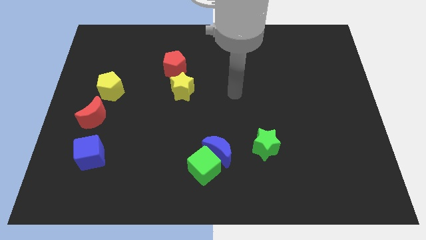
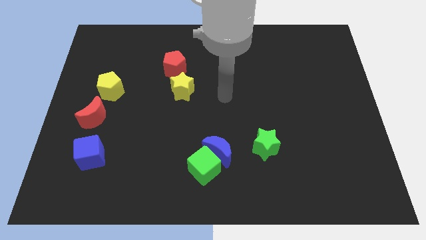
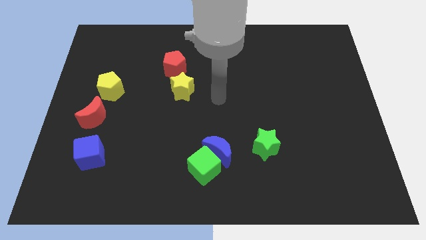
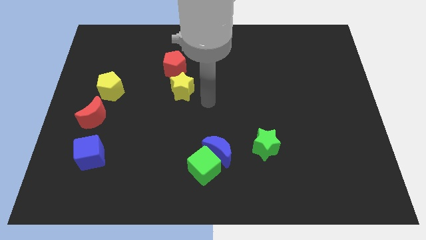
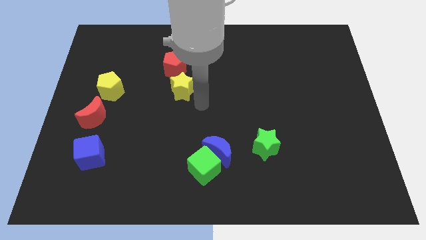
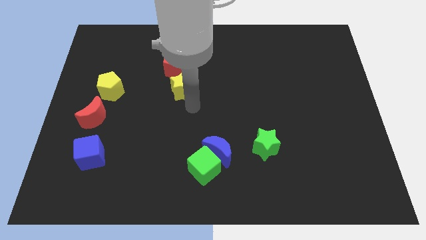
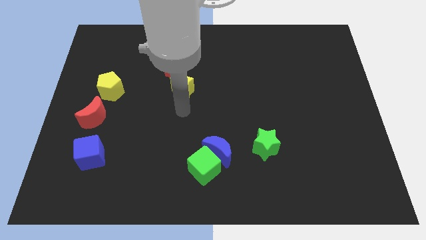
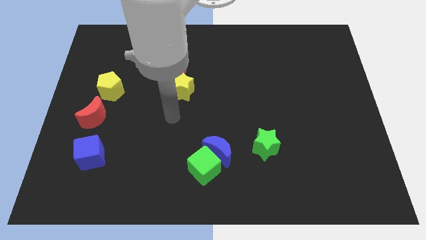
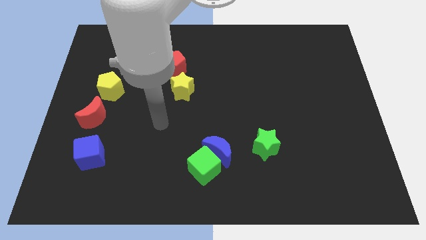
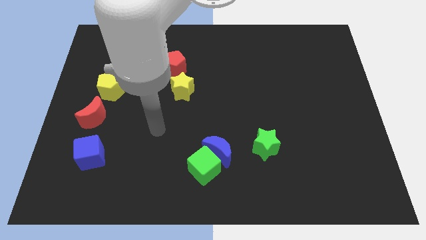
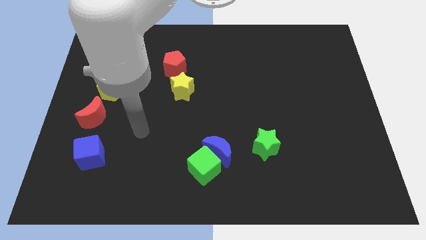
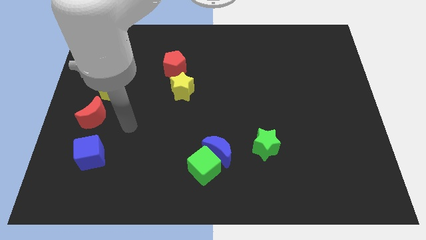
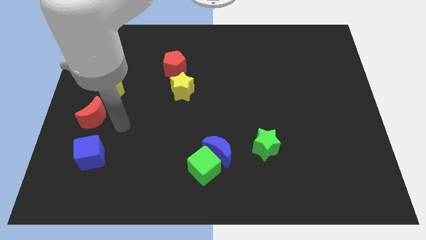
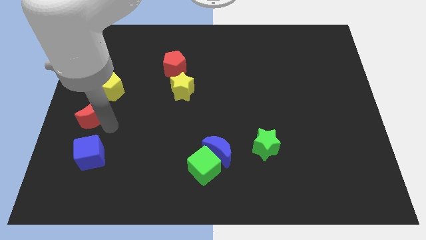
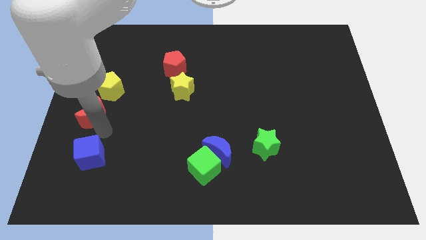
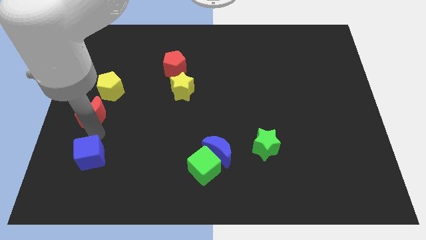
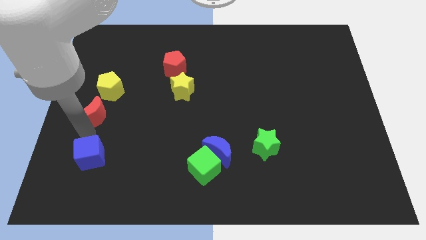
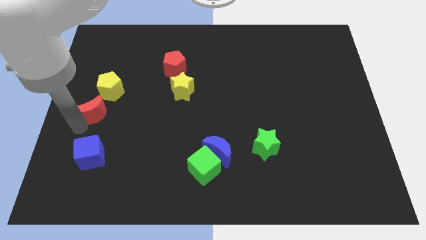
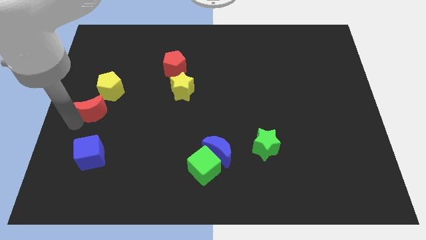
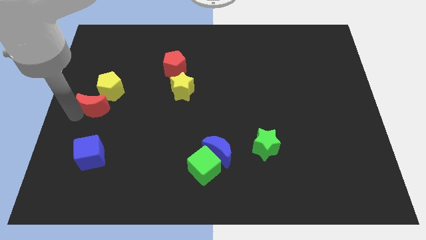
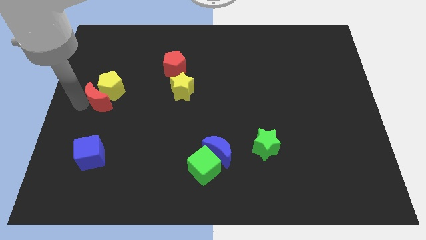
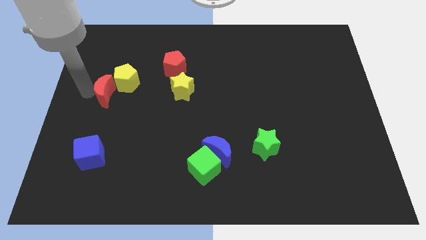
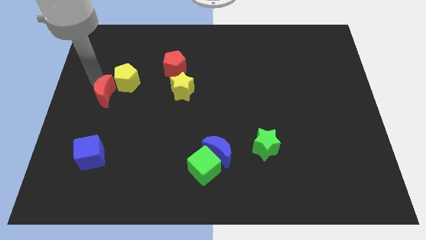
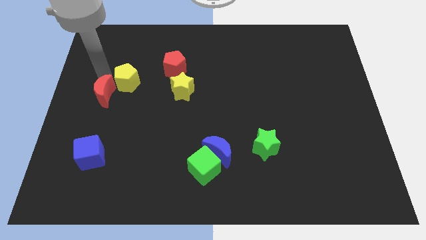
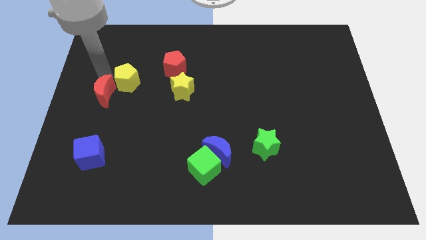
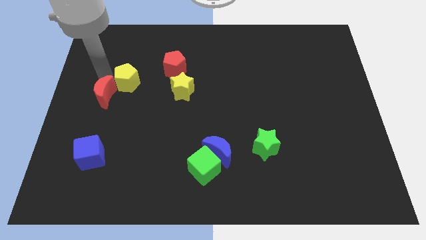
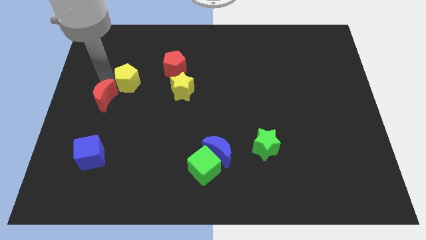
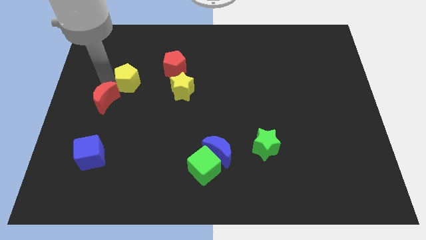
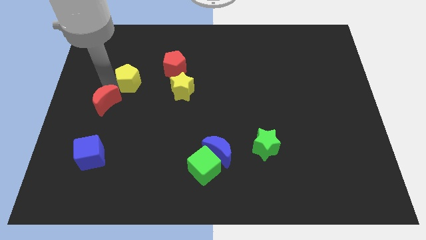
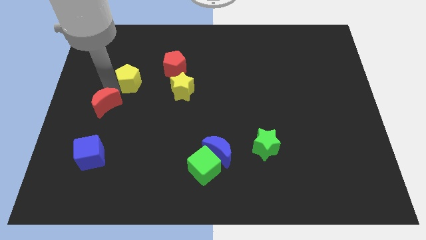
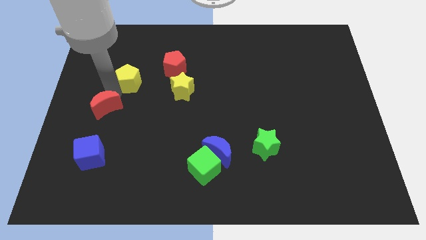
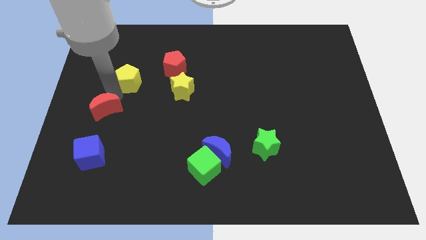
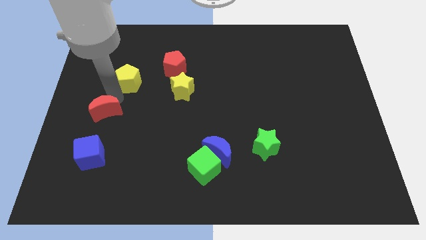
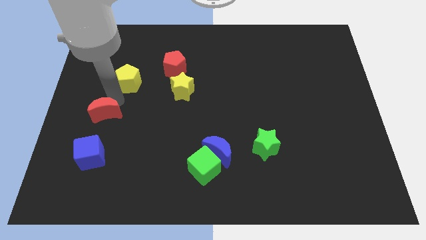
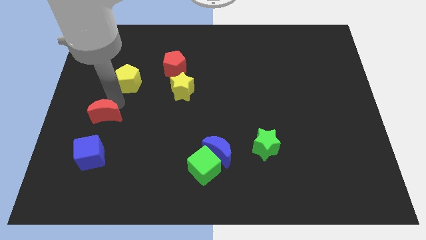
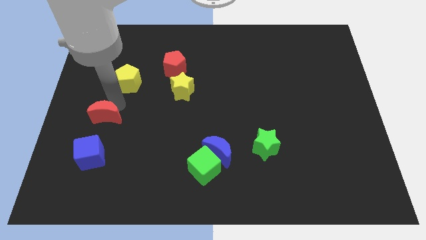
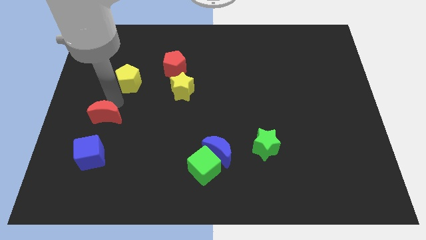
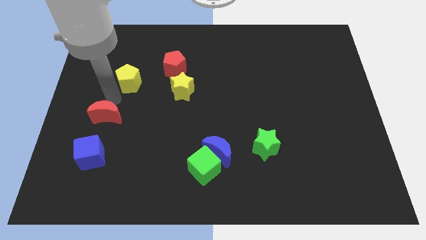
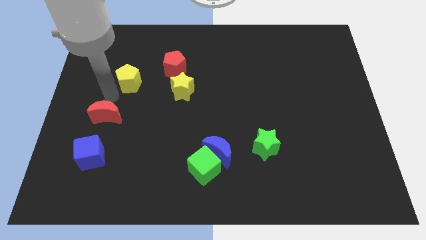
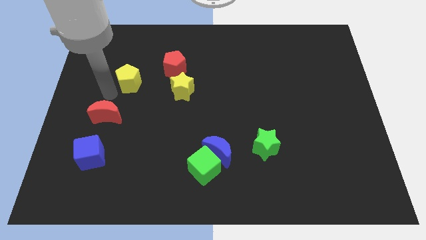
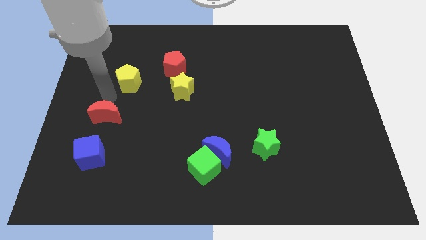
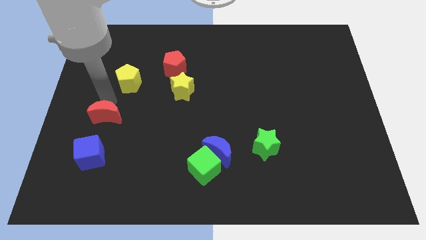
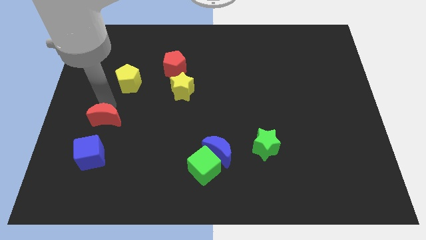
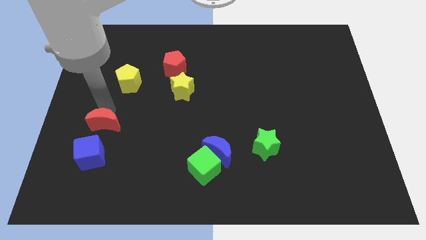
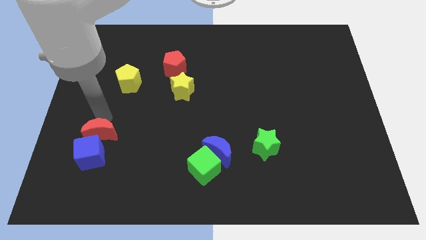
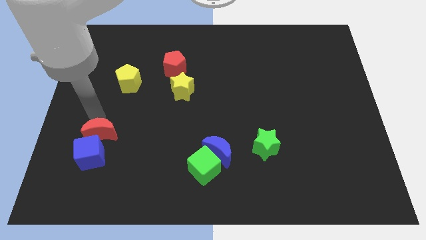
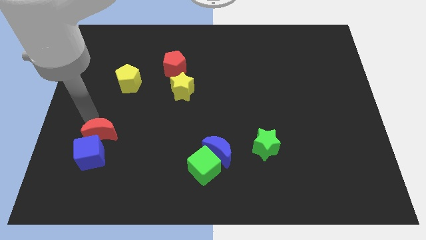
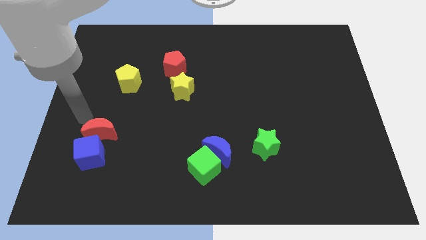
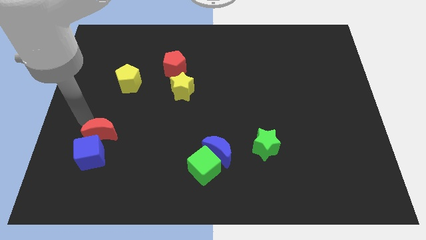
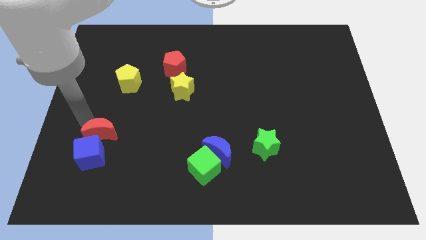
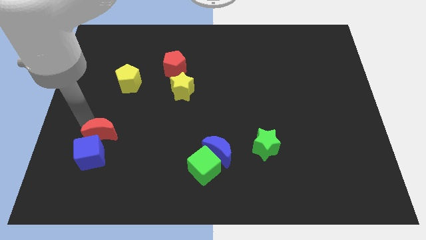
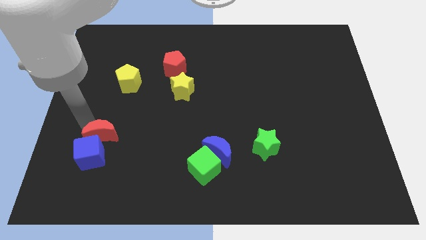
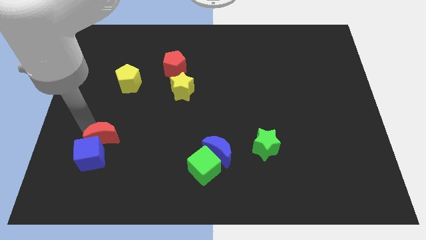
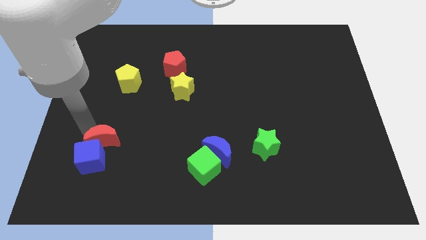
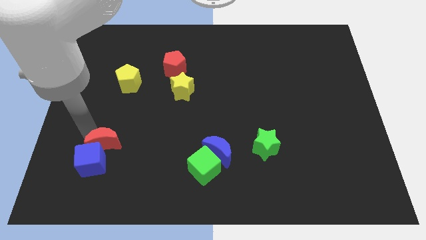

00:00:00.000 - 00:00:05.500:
slightly slide the red moon diagonally down and right

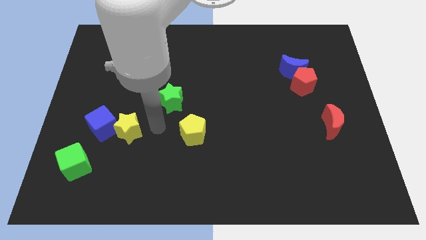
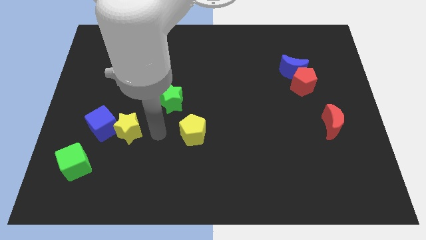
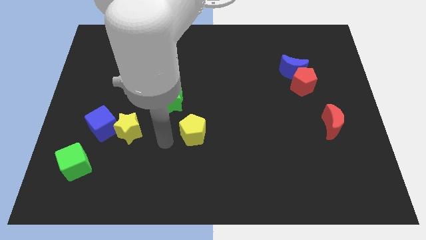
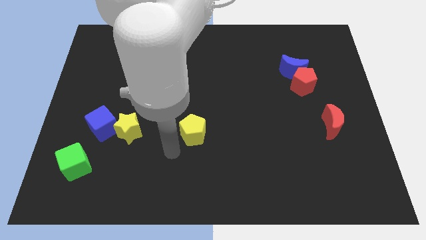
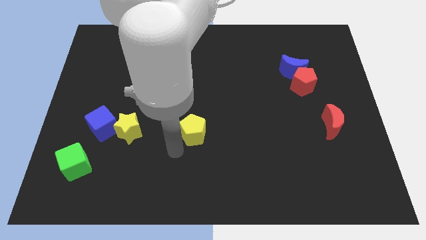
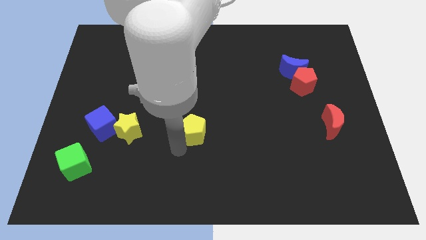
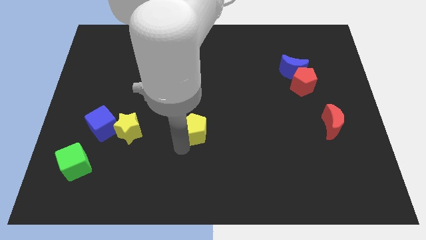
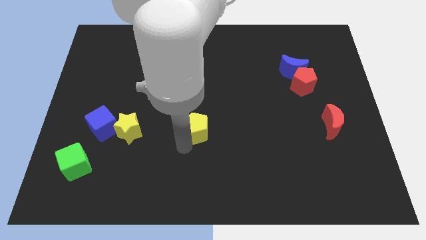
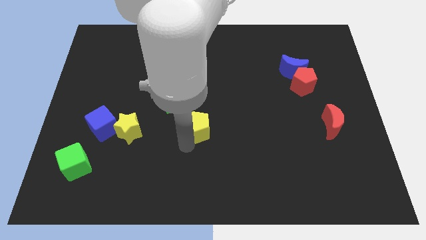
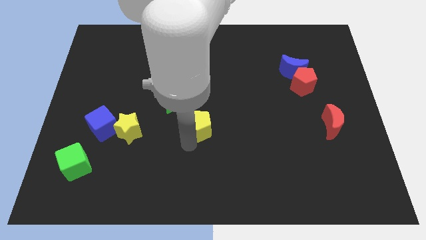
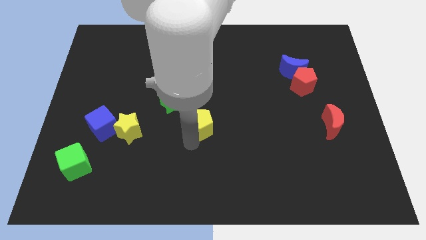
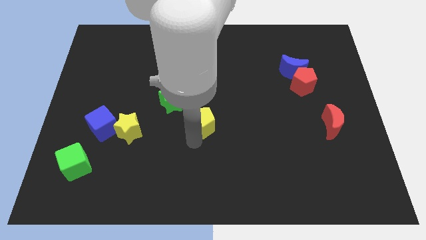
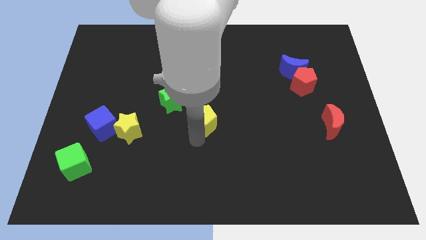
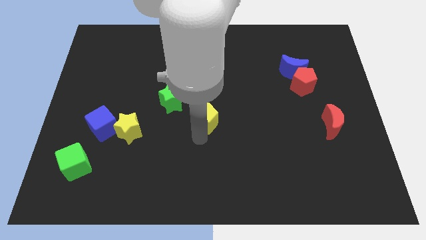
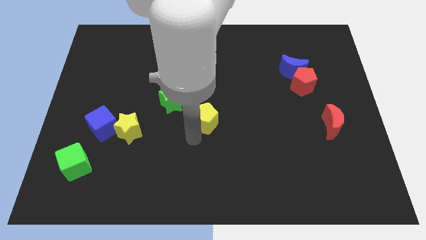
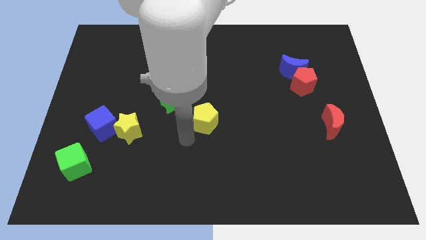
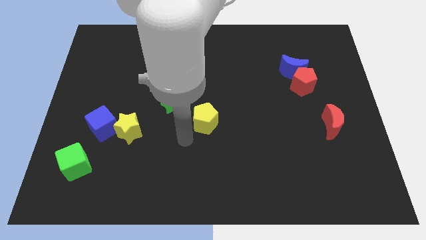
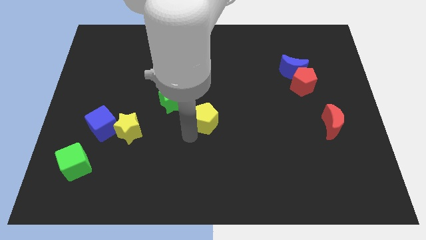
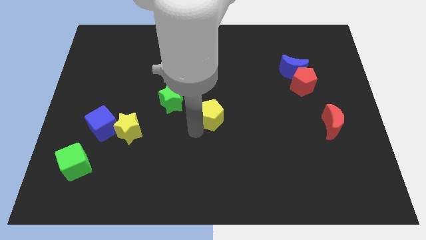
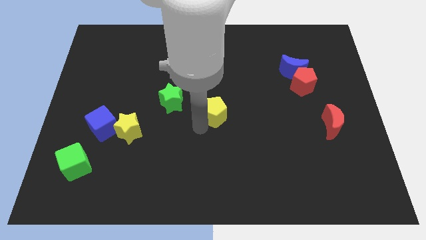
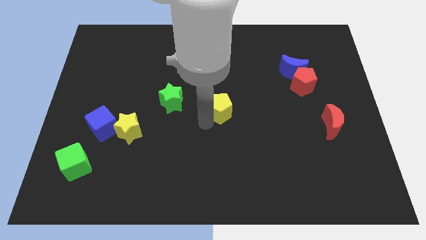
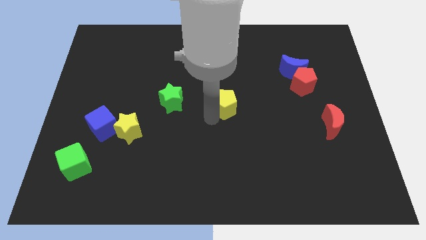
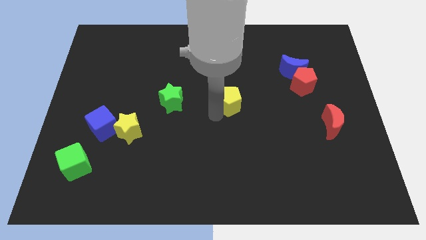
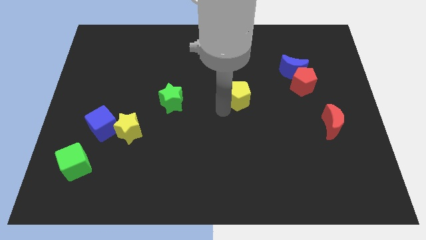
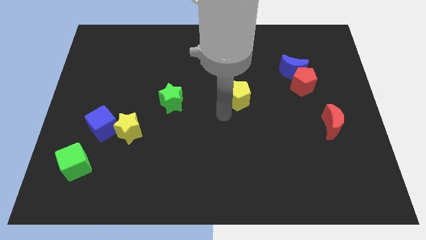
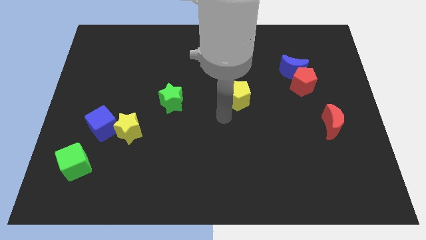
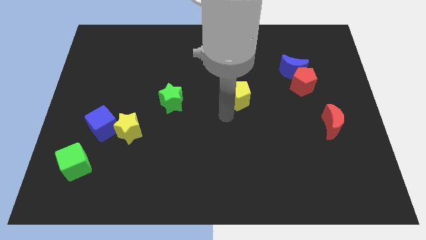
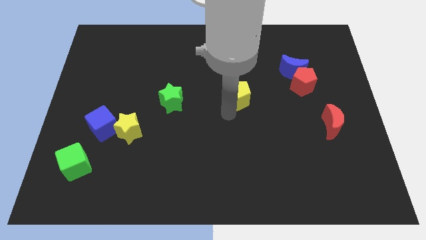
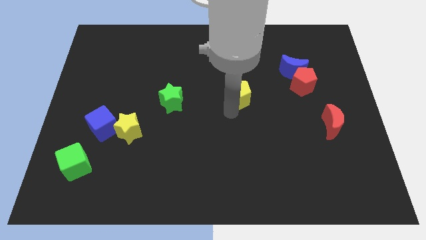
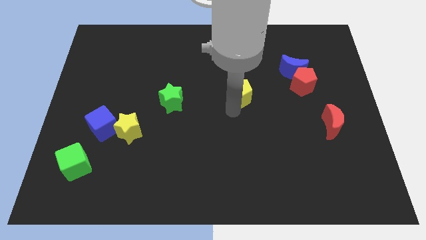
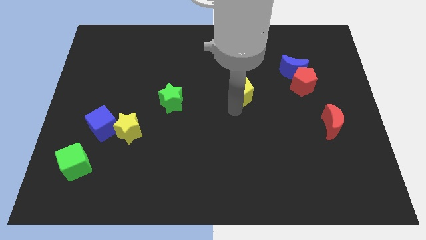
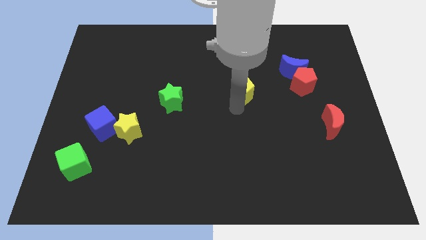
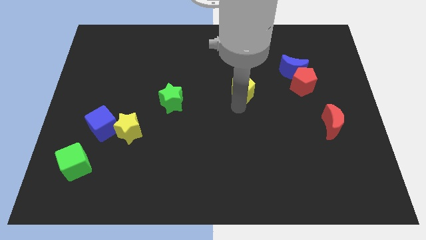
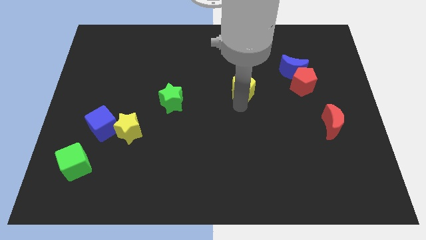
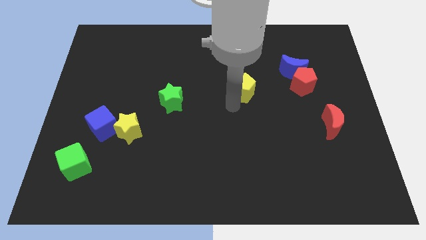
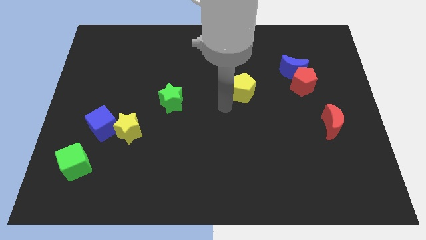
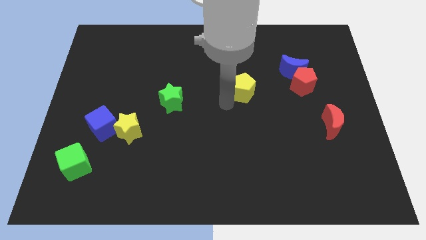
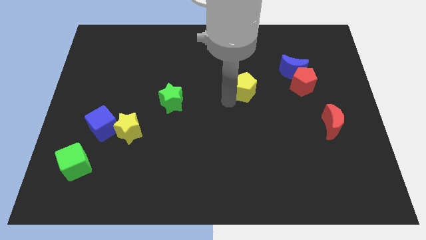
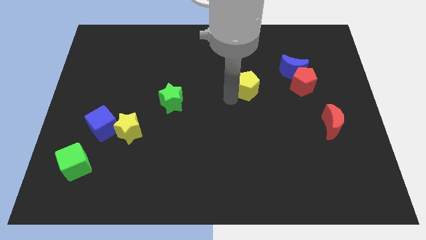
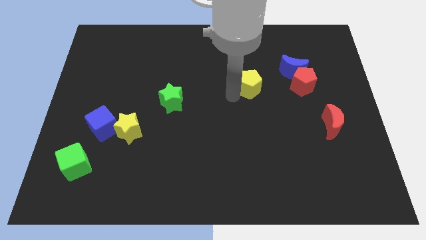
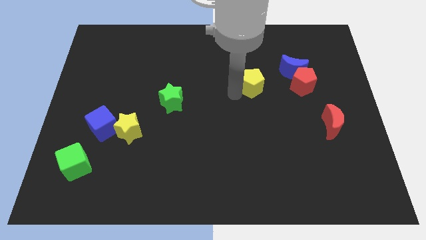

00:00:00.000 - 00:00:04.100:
push the yellow pentagon upwards and to the right diagonally
